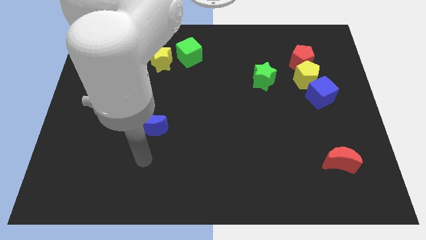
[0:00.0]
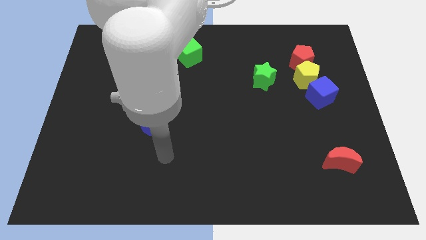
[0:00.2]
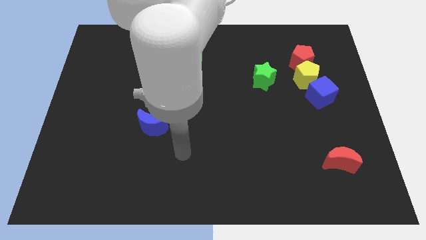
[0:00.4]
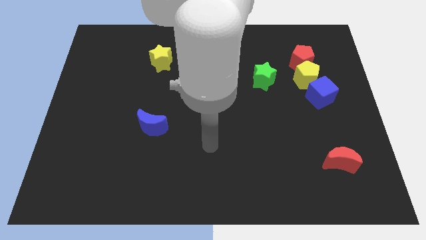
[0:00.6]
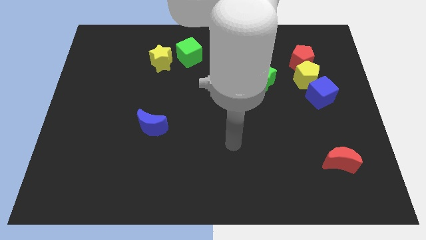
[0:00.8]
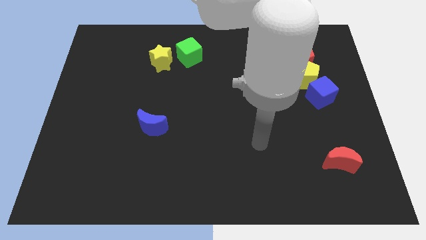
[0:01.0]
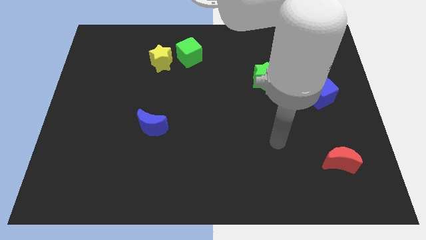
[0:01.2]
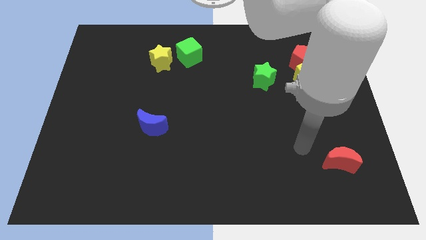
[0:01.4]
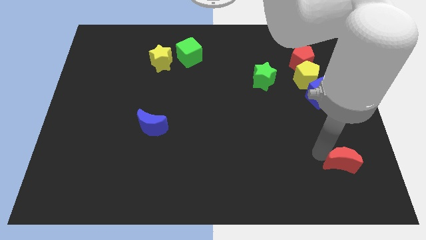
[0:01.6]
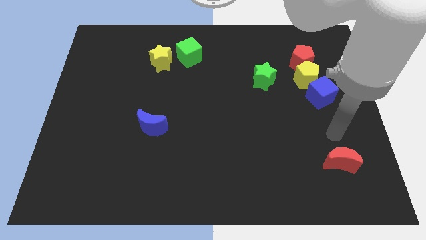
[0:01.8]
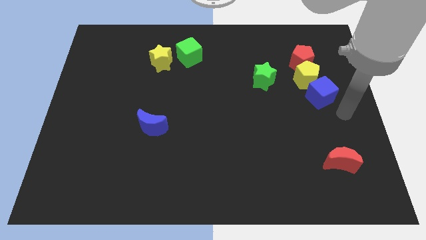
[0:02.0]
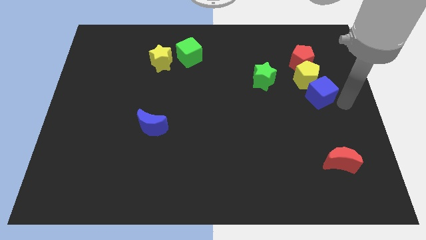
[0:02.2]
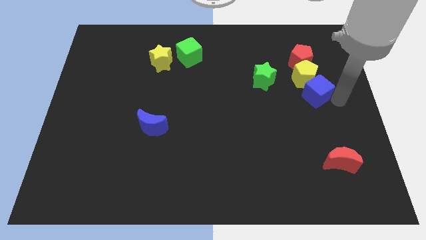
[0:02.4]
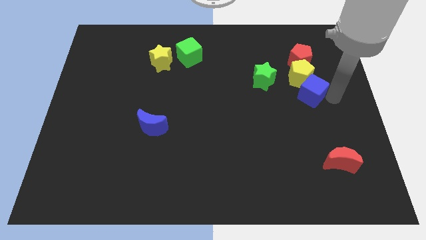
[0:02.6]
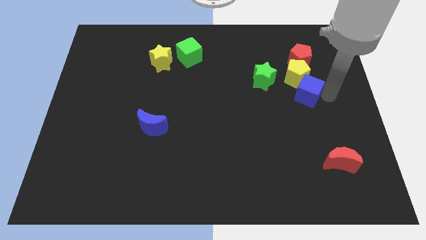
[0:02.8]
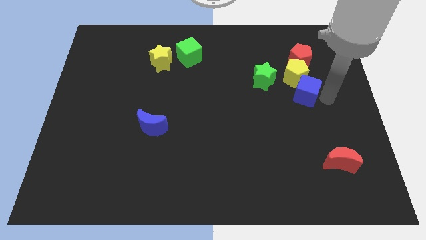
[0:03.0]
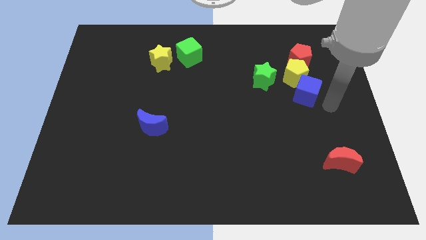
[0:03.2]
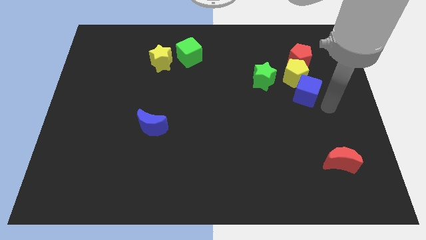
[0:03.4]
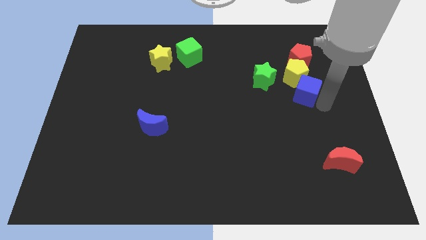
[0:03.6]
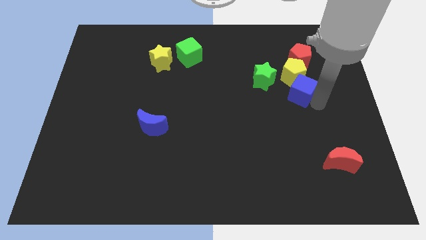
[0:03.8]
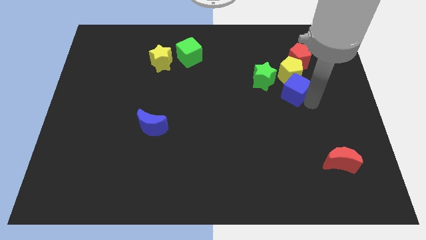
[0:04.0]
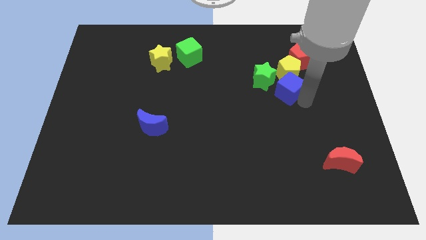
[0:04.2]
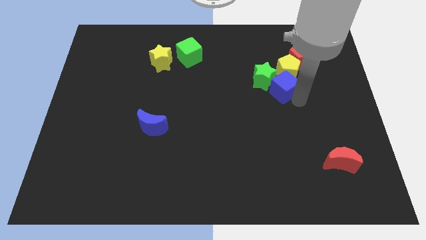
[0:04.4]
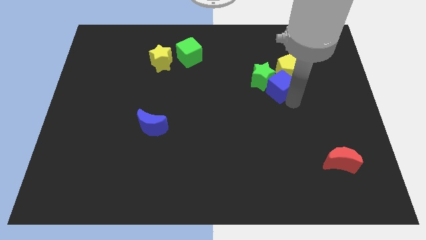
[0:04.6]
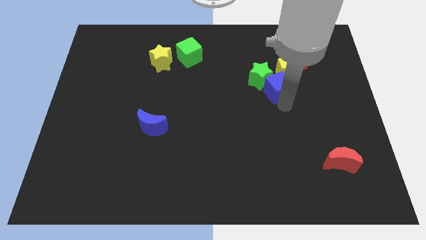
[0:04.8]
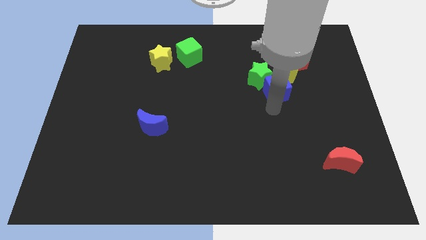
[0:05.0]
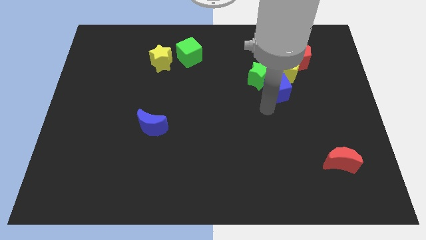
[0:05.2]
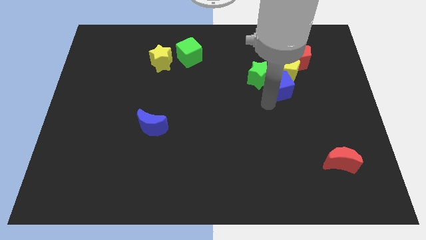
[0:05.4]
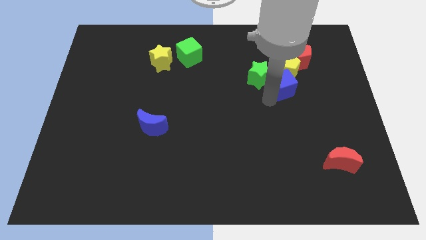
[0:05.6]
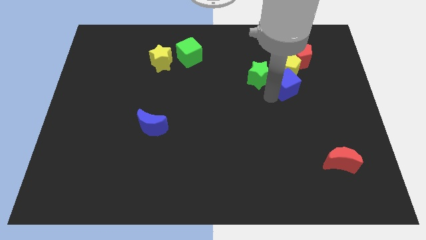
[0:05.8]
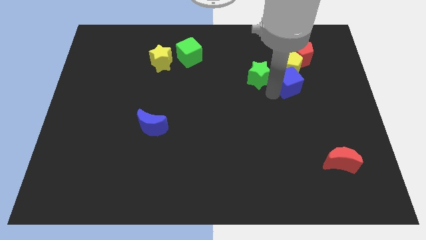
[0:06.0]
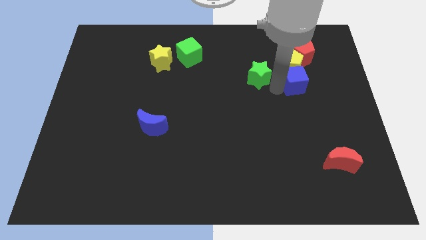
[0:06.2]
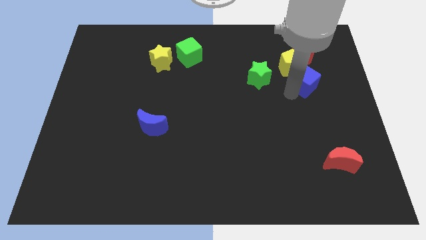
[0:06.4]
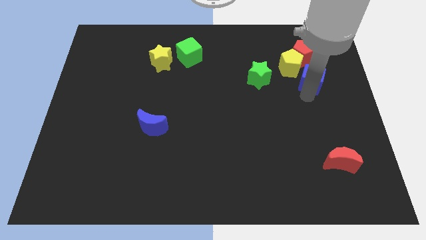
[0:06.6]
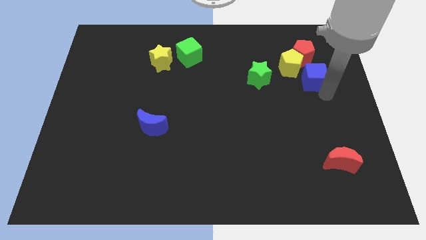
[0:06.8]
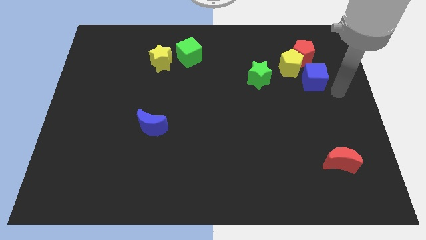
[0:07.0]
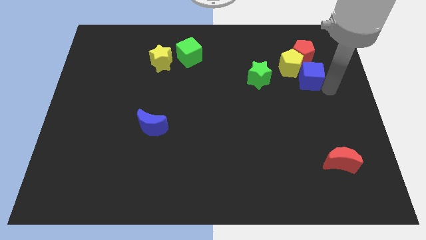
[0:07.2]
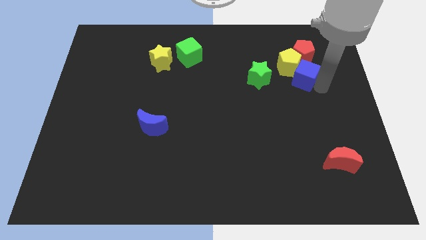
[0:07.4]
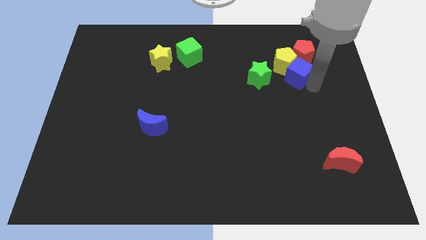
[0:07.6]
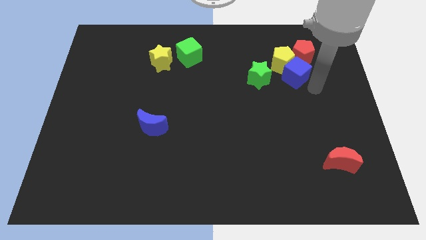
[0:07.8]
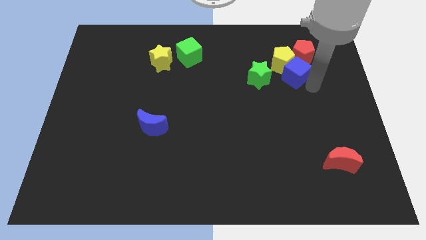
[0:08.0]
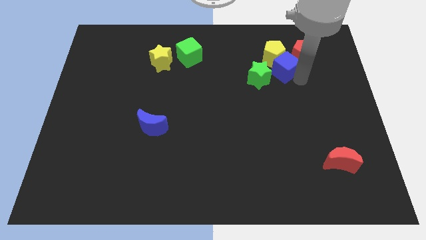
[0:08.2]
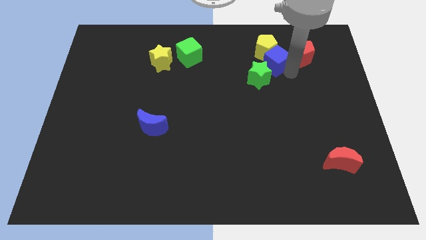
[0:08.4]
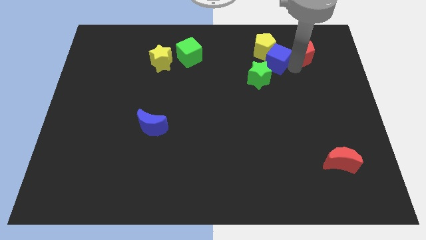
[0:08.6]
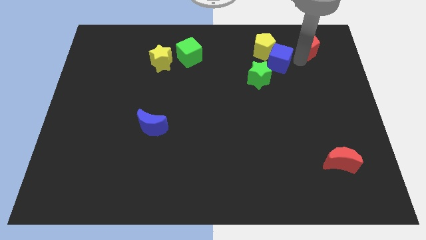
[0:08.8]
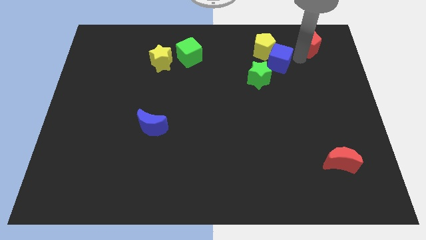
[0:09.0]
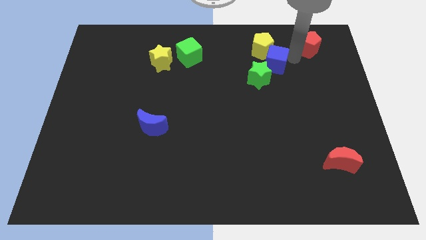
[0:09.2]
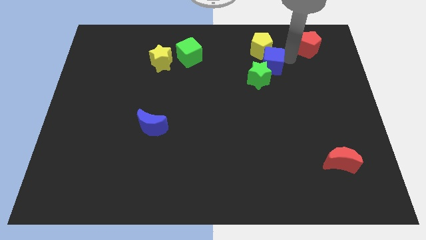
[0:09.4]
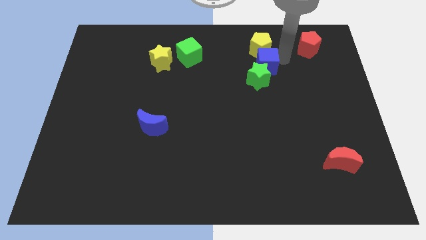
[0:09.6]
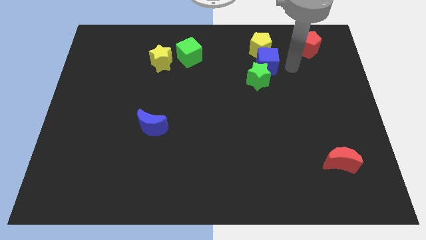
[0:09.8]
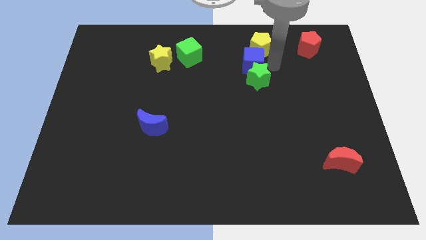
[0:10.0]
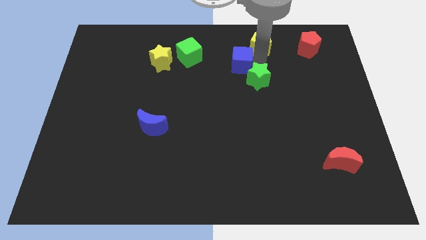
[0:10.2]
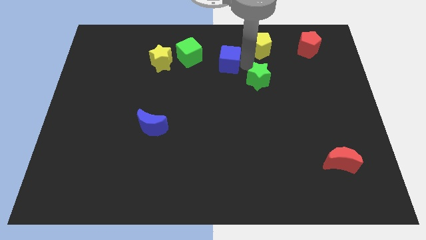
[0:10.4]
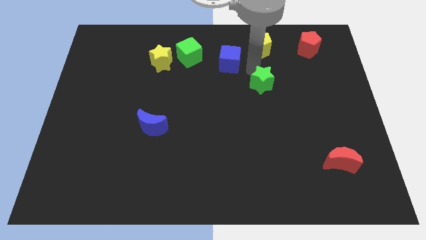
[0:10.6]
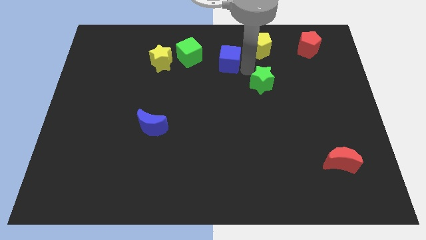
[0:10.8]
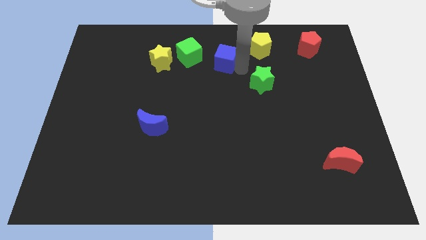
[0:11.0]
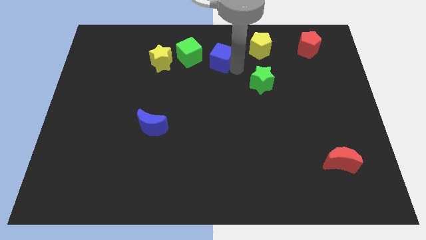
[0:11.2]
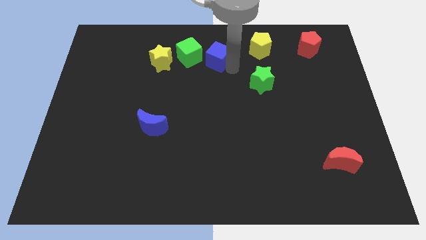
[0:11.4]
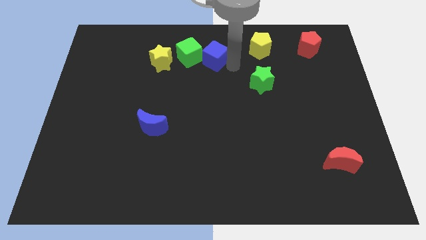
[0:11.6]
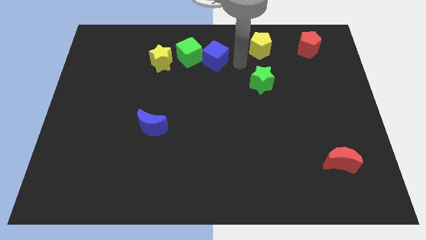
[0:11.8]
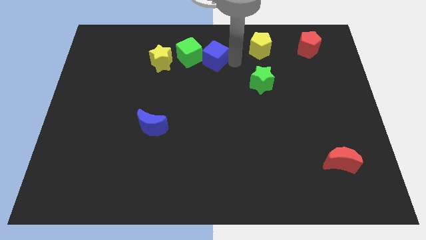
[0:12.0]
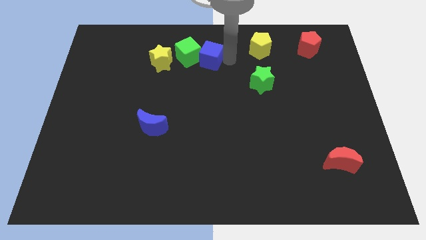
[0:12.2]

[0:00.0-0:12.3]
slide the blue cube next to the green cube

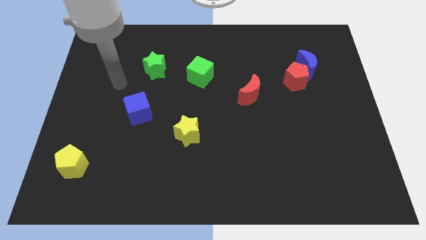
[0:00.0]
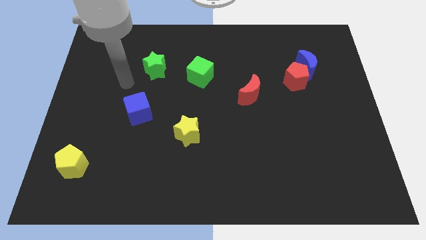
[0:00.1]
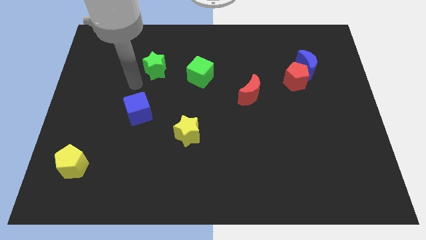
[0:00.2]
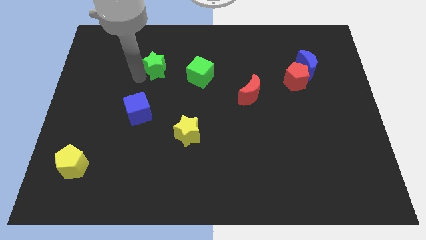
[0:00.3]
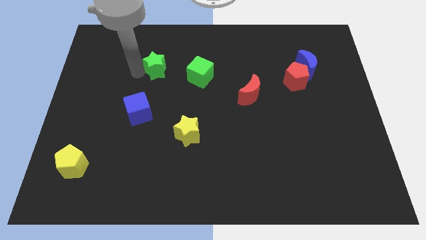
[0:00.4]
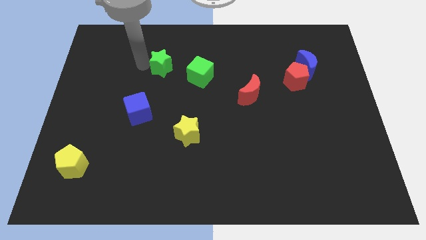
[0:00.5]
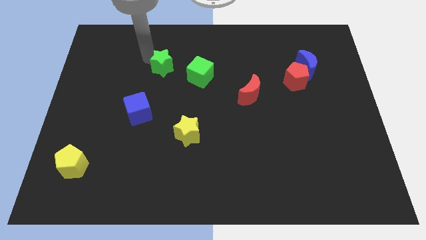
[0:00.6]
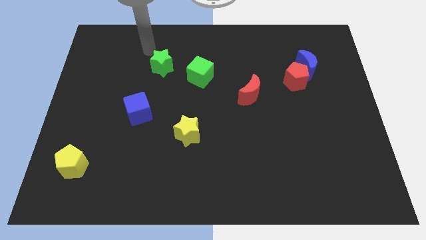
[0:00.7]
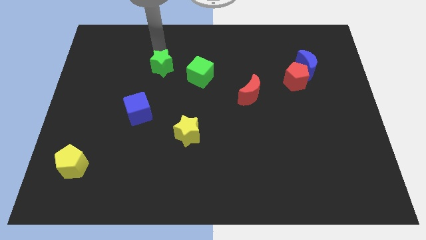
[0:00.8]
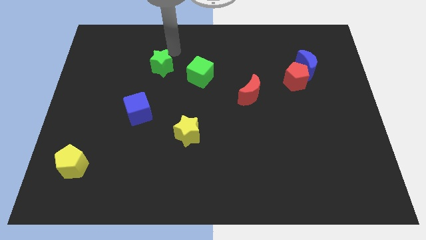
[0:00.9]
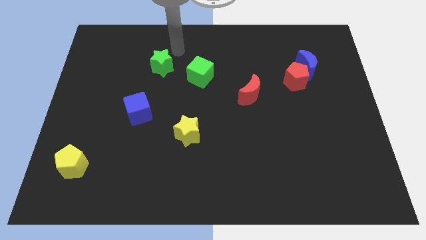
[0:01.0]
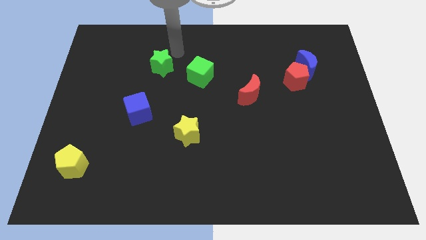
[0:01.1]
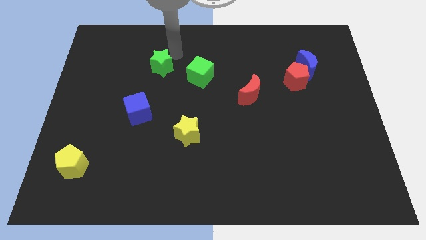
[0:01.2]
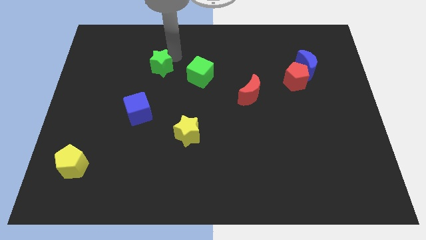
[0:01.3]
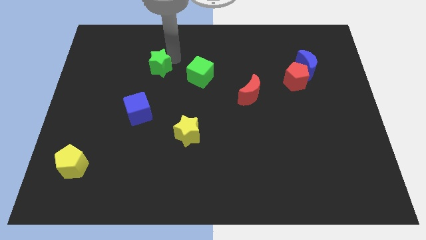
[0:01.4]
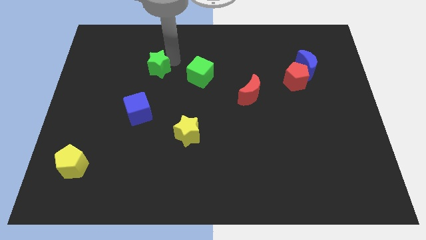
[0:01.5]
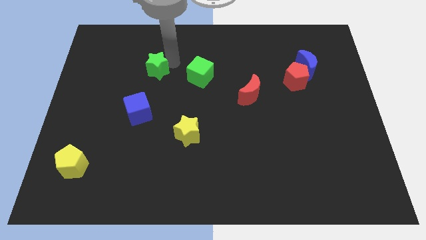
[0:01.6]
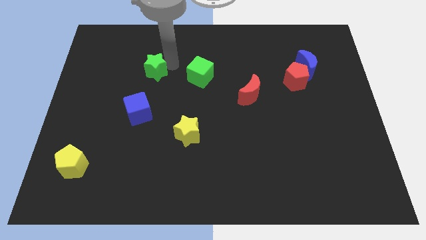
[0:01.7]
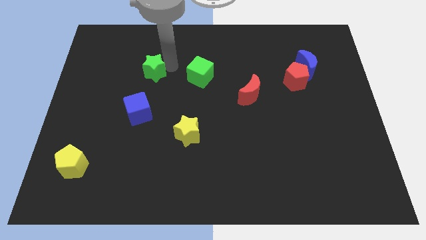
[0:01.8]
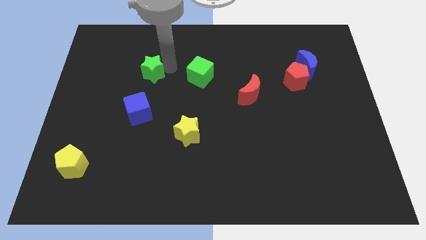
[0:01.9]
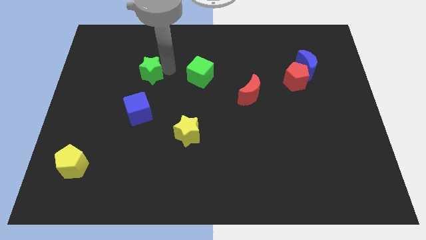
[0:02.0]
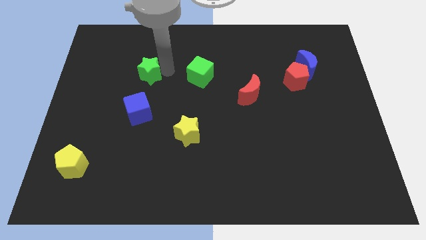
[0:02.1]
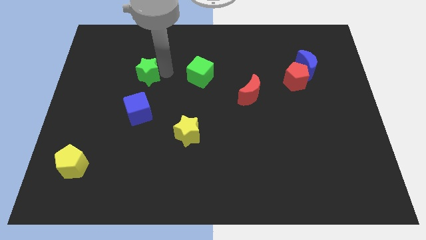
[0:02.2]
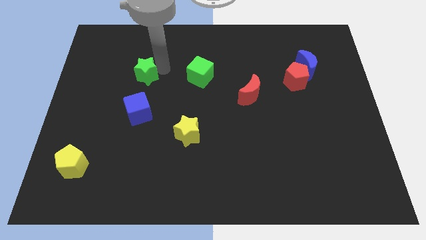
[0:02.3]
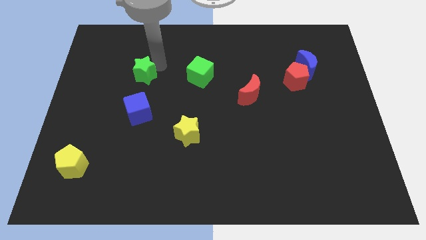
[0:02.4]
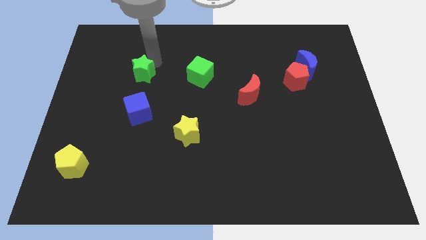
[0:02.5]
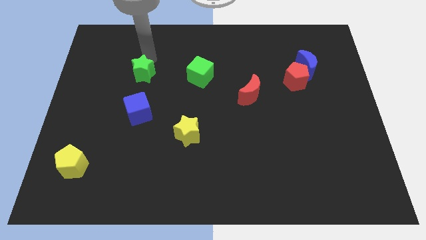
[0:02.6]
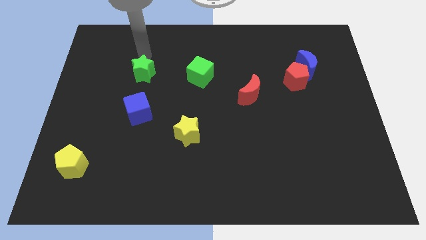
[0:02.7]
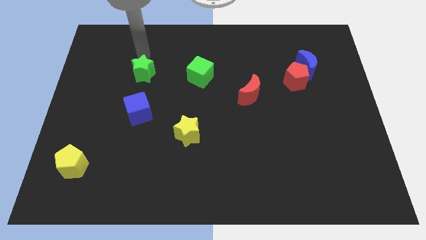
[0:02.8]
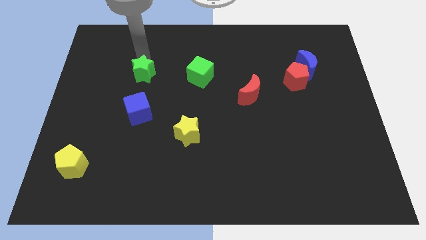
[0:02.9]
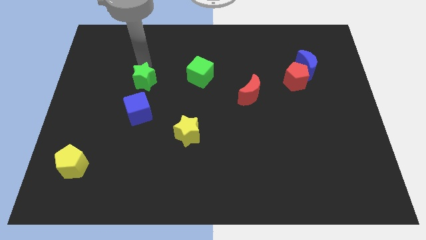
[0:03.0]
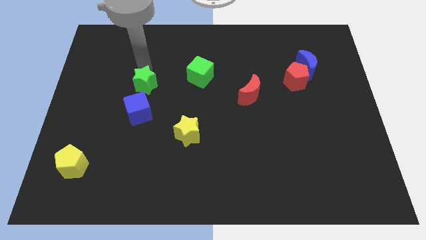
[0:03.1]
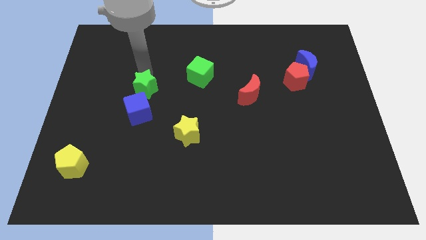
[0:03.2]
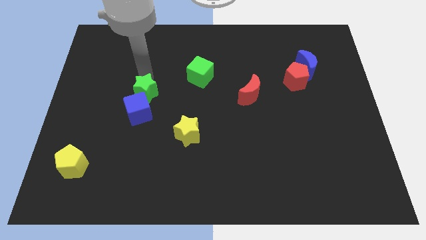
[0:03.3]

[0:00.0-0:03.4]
slide the green star to the blue cube
